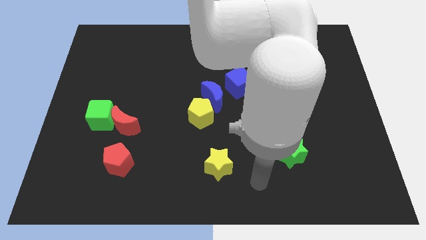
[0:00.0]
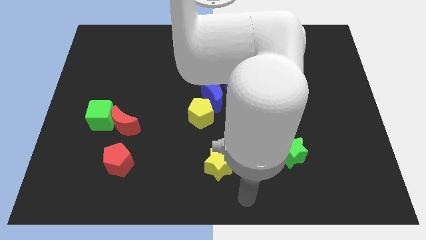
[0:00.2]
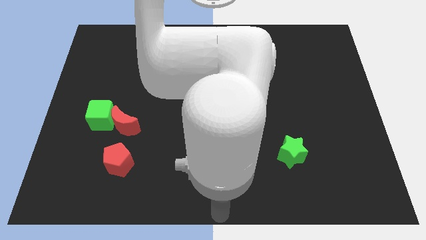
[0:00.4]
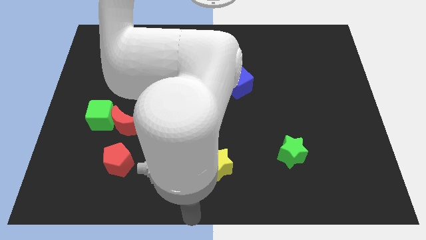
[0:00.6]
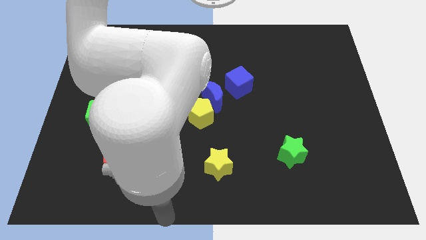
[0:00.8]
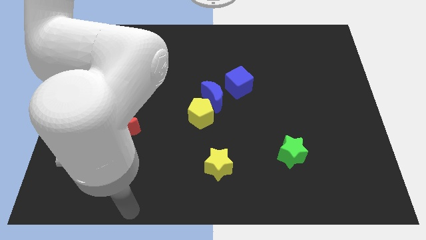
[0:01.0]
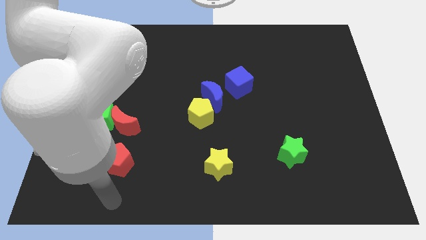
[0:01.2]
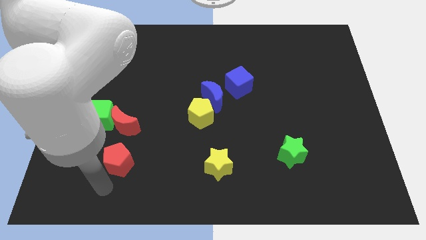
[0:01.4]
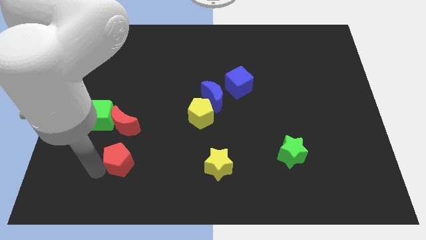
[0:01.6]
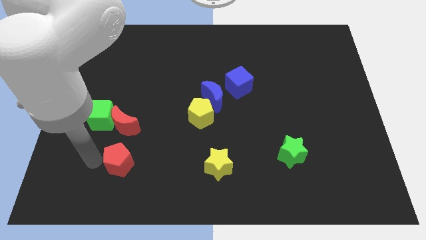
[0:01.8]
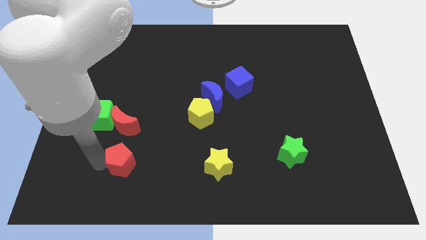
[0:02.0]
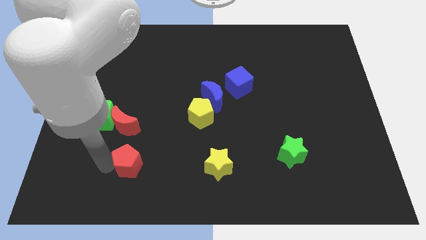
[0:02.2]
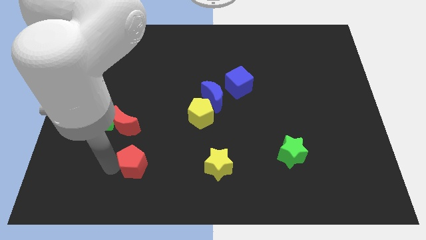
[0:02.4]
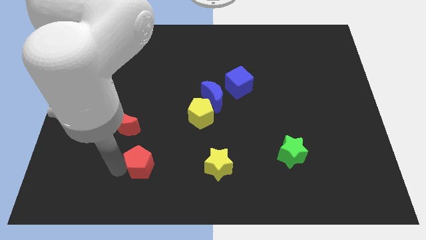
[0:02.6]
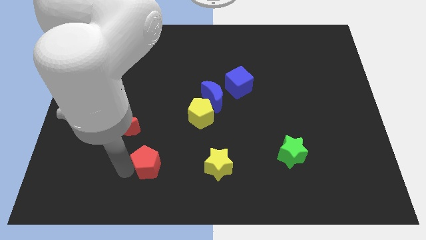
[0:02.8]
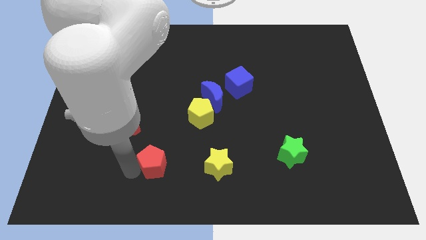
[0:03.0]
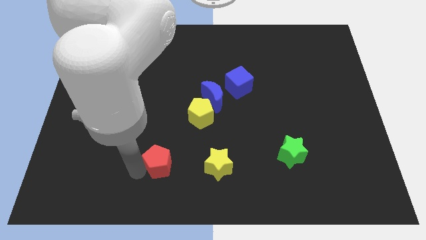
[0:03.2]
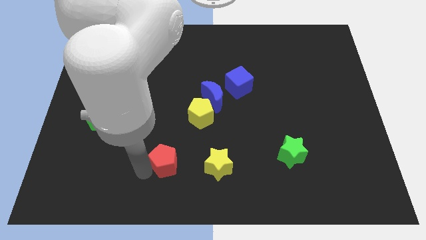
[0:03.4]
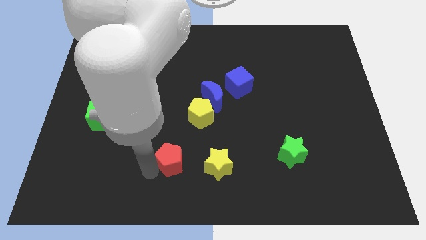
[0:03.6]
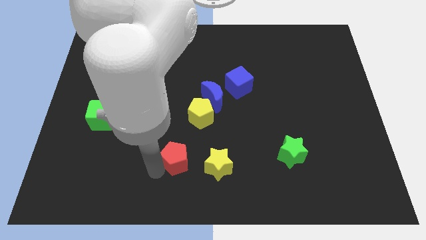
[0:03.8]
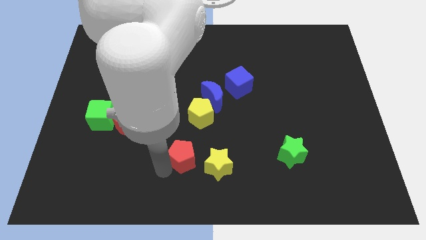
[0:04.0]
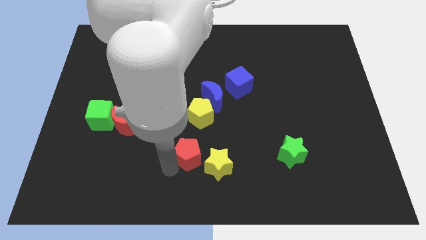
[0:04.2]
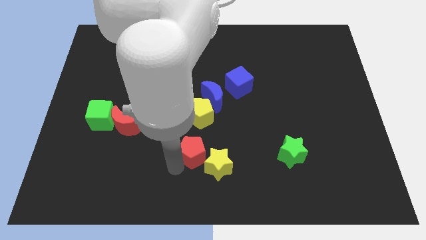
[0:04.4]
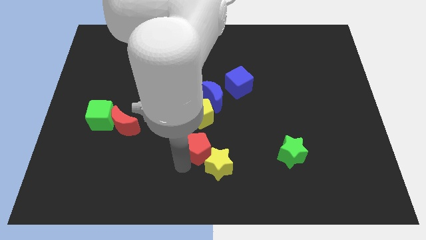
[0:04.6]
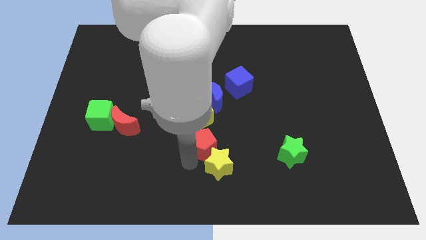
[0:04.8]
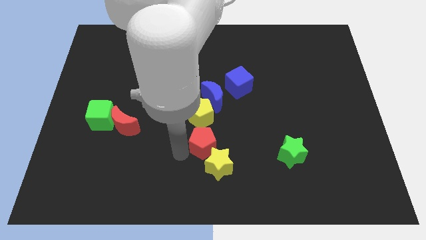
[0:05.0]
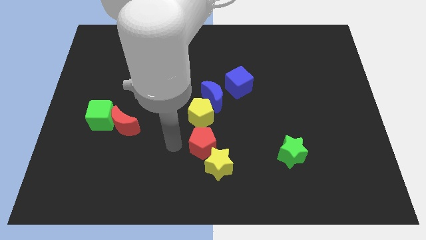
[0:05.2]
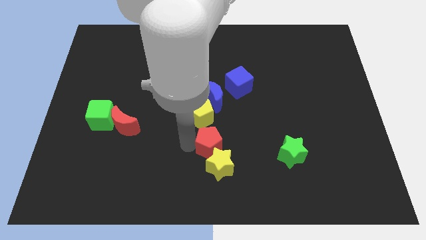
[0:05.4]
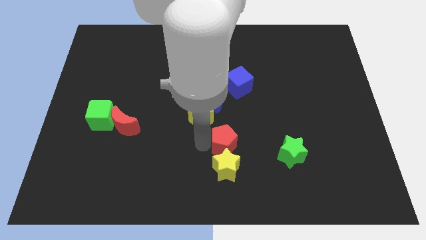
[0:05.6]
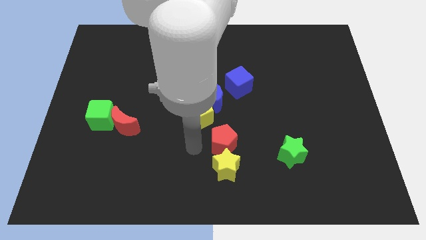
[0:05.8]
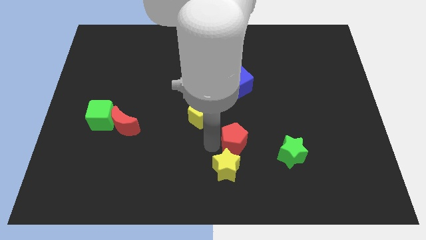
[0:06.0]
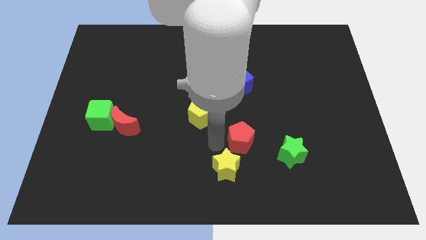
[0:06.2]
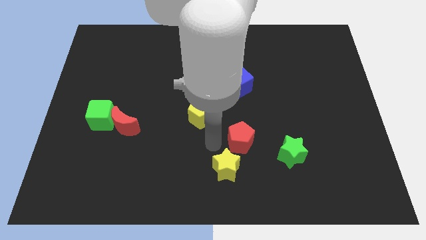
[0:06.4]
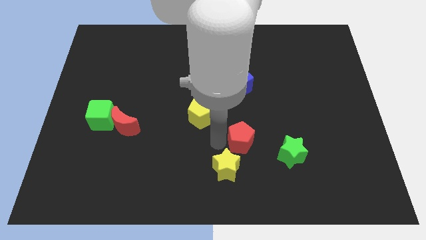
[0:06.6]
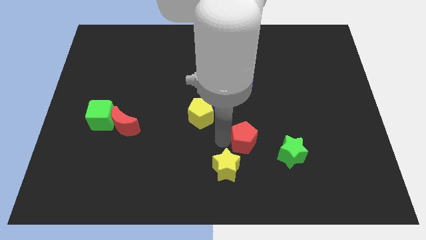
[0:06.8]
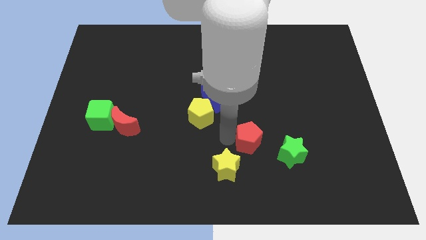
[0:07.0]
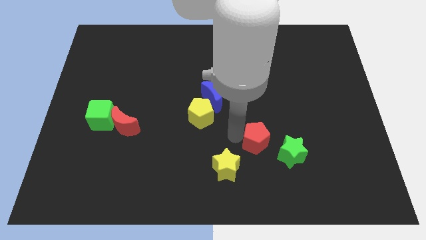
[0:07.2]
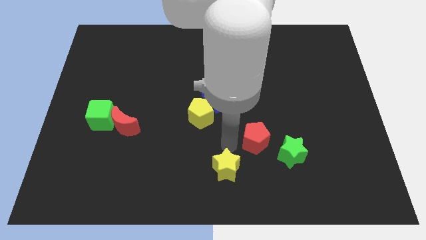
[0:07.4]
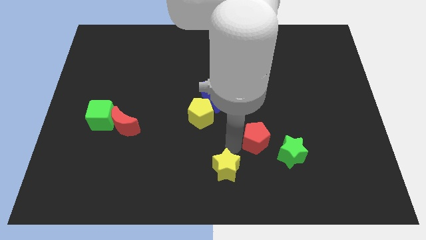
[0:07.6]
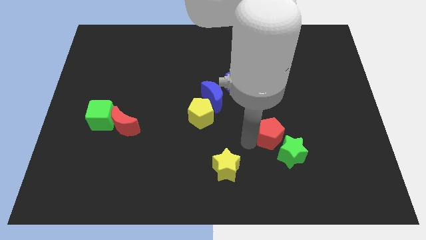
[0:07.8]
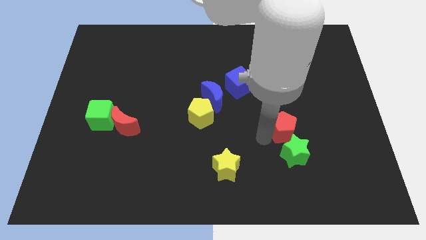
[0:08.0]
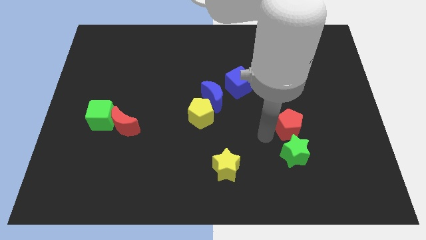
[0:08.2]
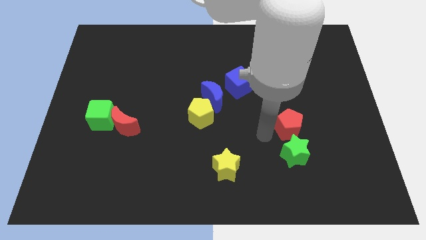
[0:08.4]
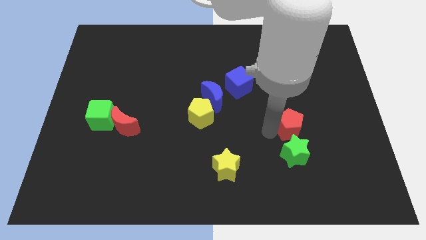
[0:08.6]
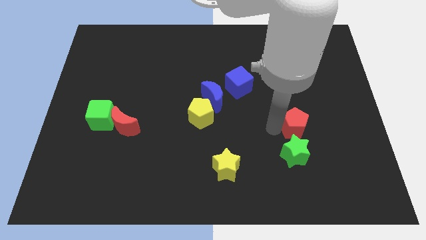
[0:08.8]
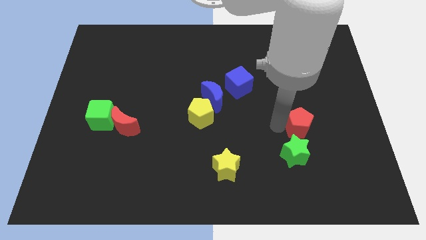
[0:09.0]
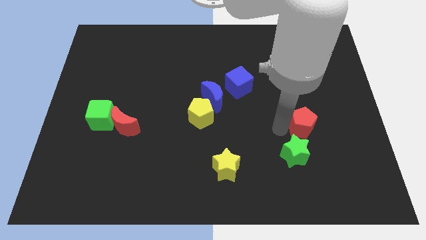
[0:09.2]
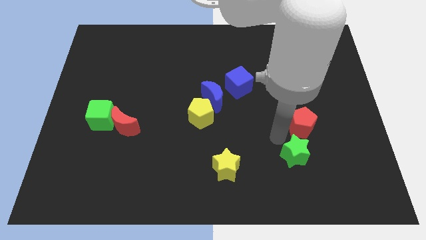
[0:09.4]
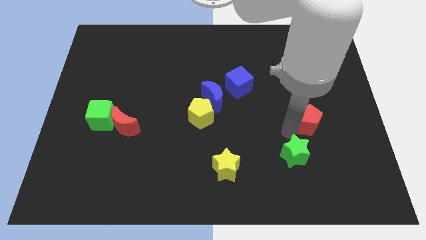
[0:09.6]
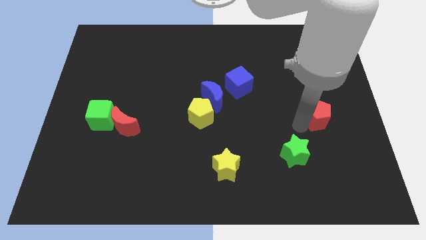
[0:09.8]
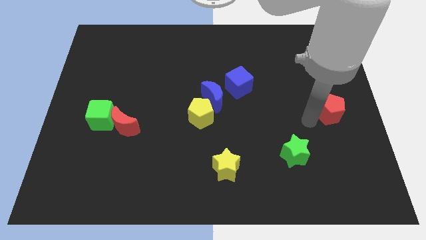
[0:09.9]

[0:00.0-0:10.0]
slide the red pentagon to the right side

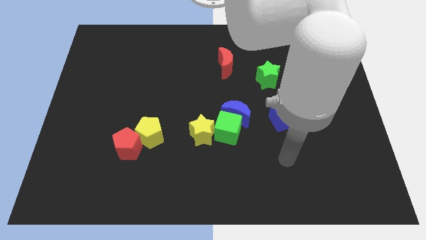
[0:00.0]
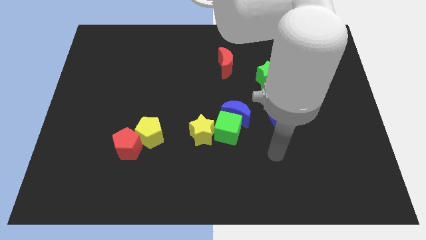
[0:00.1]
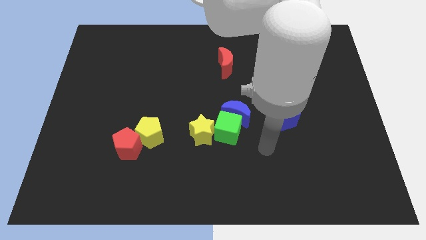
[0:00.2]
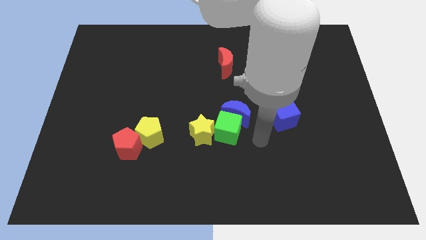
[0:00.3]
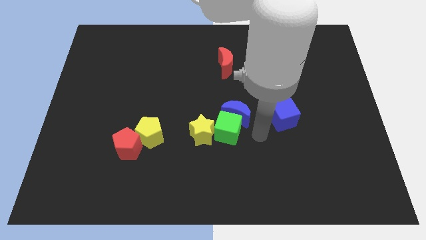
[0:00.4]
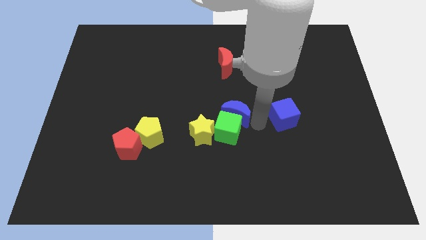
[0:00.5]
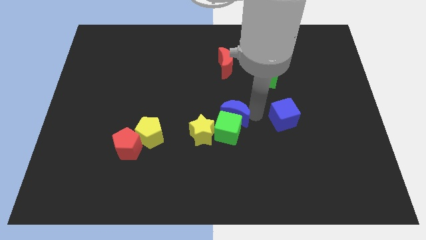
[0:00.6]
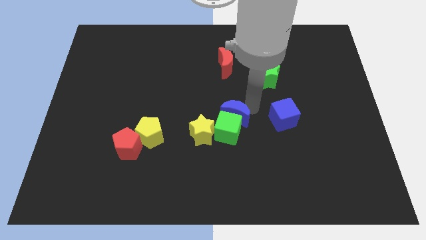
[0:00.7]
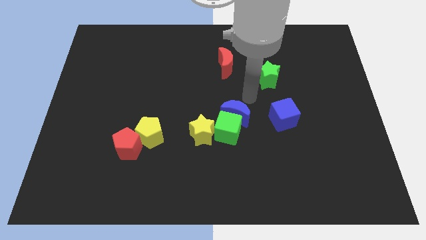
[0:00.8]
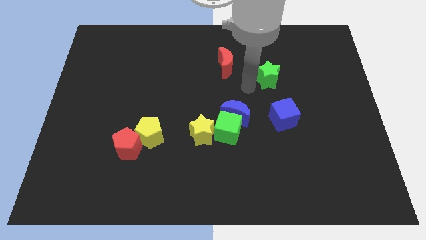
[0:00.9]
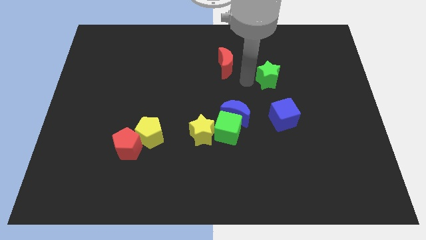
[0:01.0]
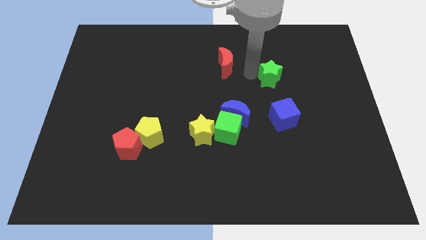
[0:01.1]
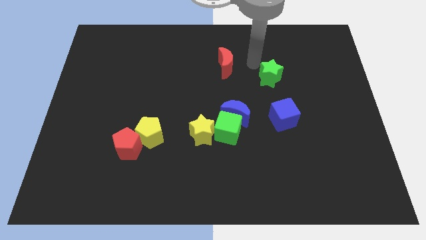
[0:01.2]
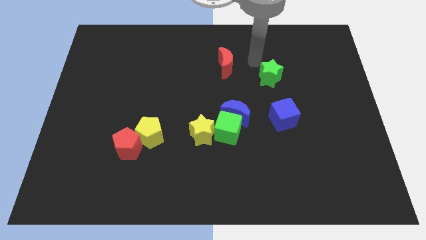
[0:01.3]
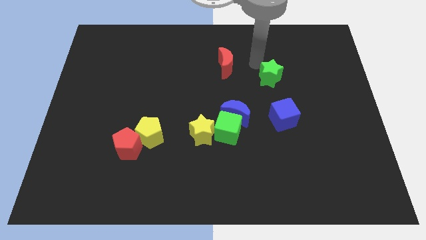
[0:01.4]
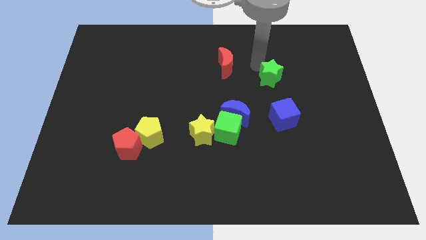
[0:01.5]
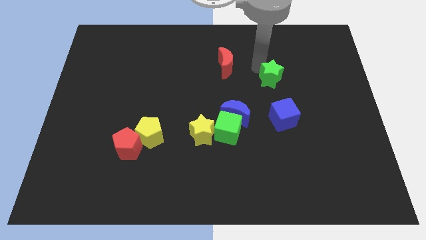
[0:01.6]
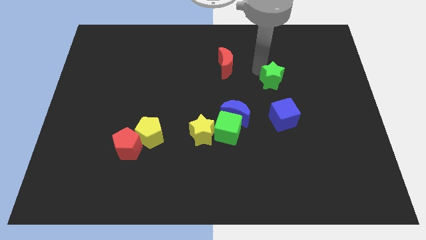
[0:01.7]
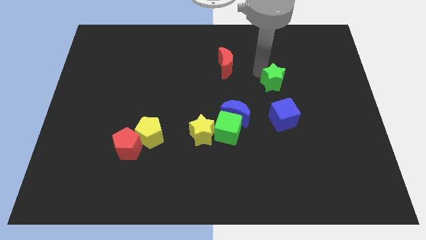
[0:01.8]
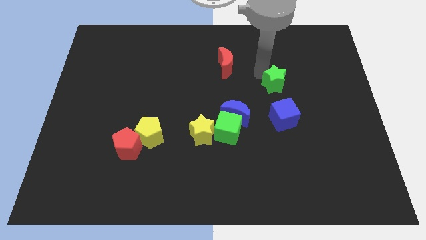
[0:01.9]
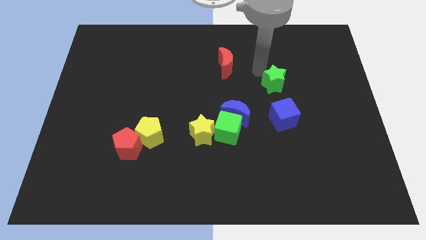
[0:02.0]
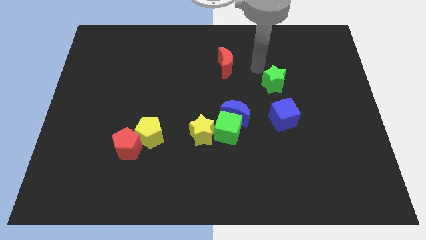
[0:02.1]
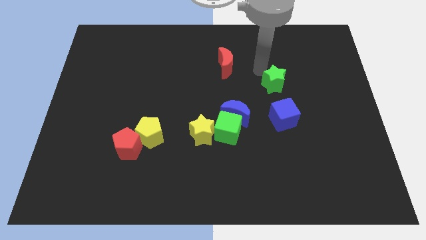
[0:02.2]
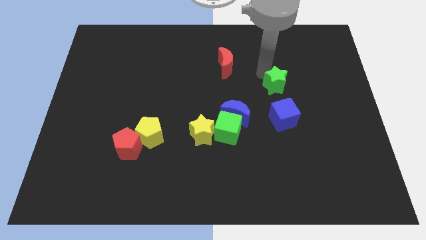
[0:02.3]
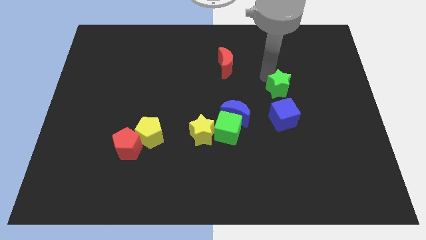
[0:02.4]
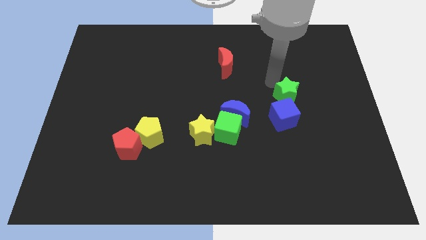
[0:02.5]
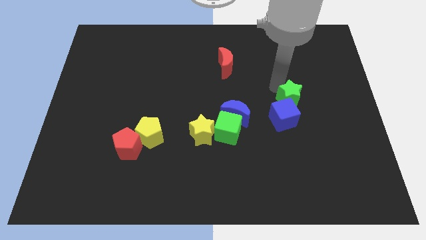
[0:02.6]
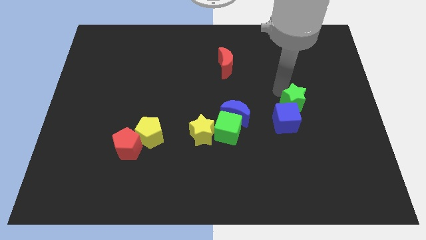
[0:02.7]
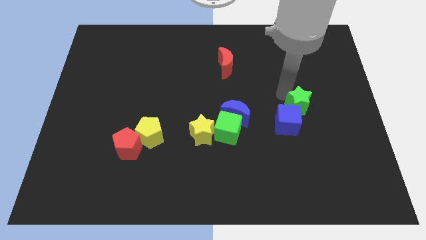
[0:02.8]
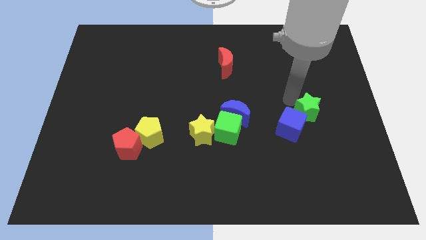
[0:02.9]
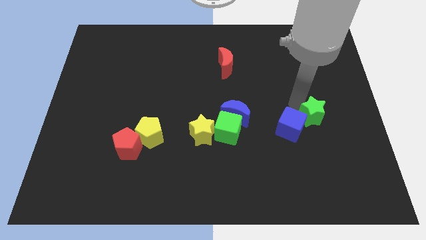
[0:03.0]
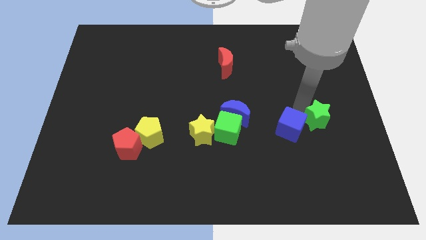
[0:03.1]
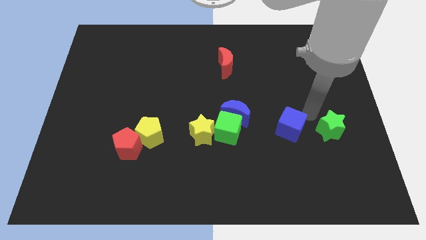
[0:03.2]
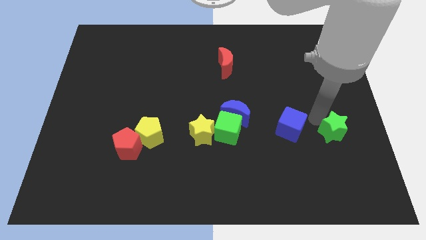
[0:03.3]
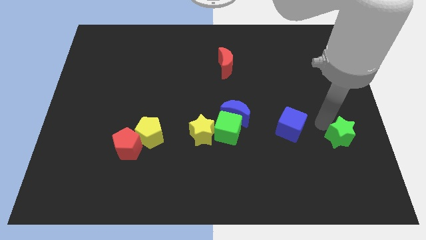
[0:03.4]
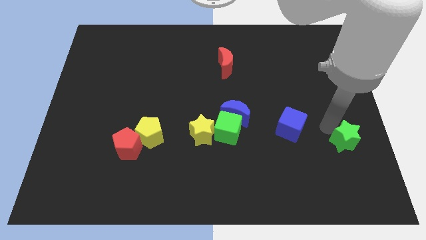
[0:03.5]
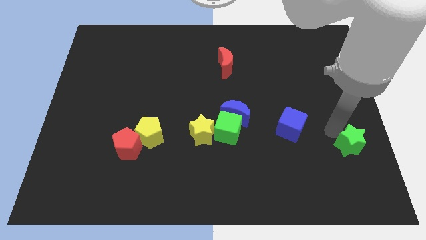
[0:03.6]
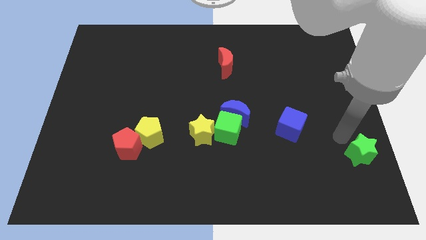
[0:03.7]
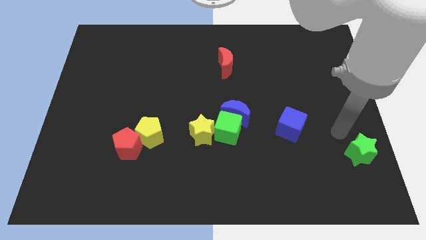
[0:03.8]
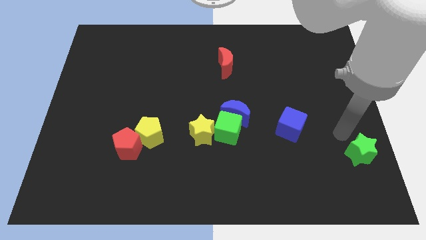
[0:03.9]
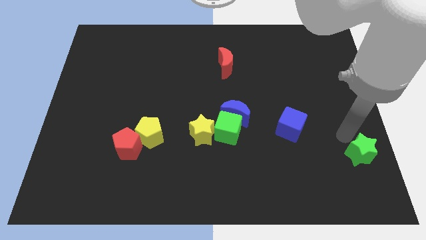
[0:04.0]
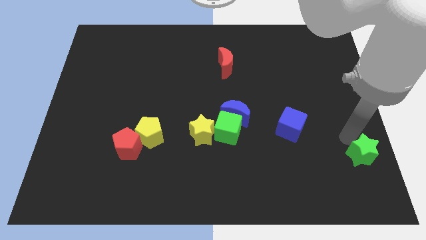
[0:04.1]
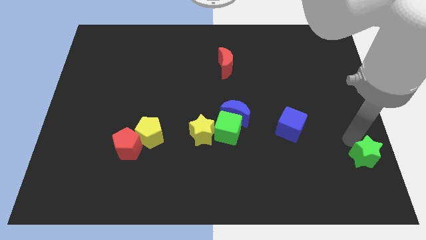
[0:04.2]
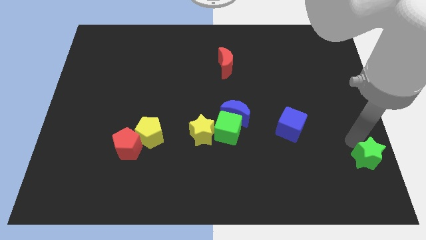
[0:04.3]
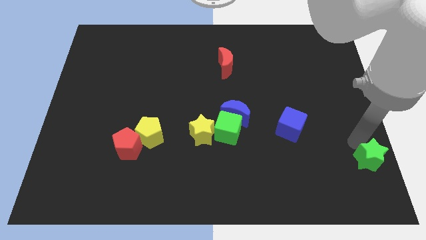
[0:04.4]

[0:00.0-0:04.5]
move the green star to the bottom right of the board
